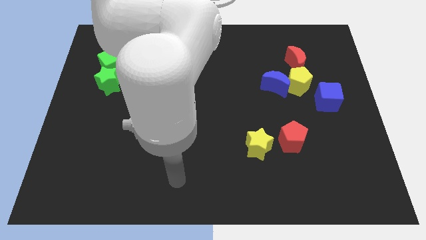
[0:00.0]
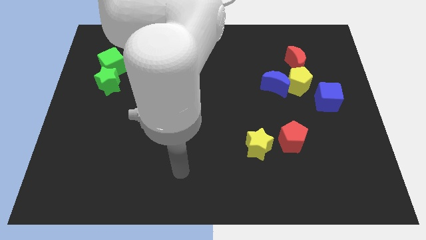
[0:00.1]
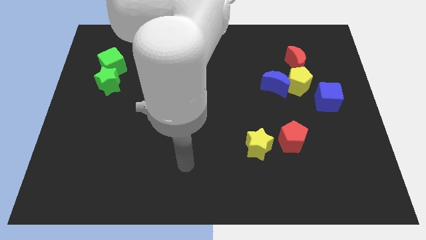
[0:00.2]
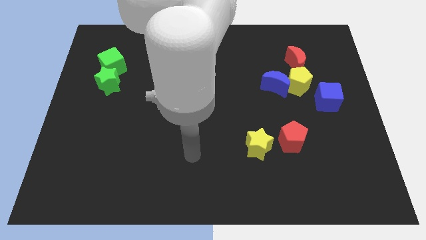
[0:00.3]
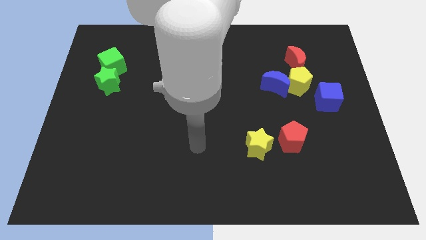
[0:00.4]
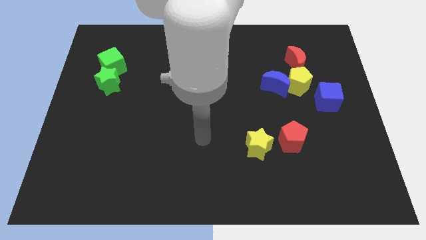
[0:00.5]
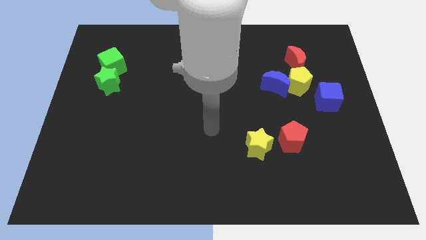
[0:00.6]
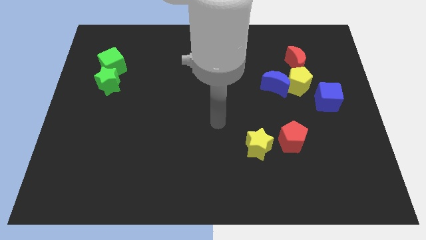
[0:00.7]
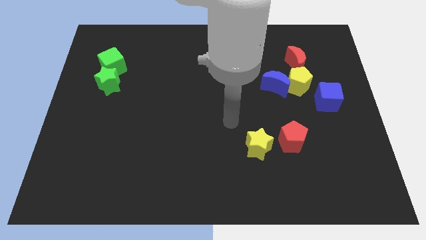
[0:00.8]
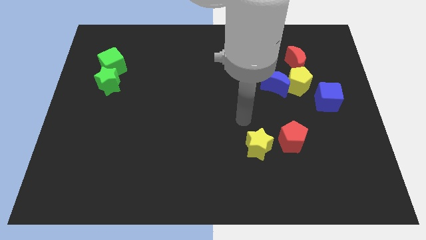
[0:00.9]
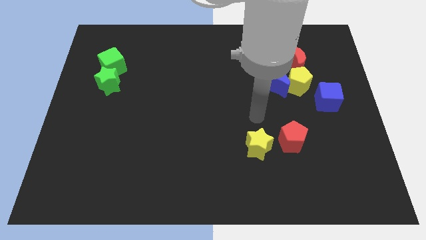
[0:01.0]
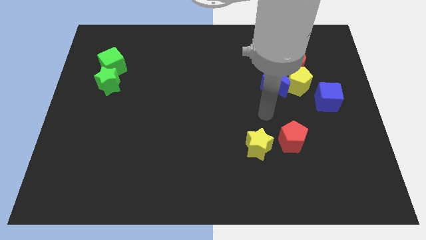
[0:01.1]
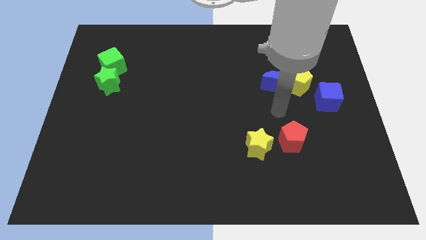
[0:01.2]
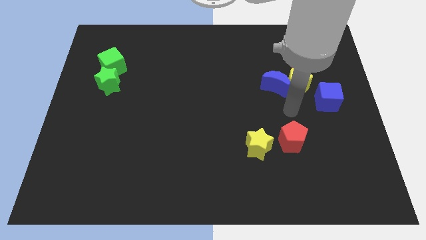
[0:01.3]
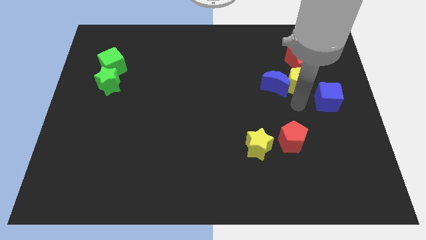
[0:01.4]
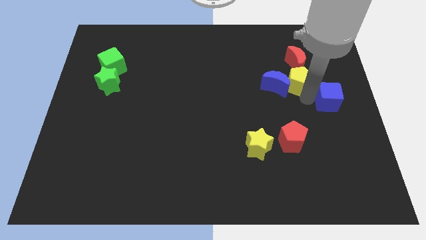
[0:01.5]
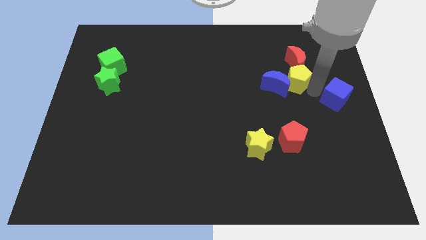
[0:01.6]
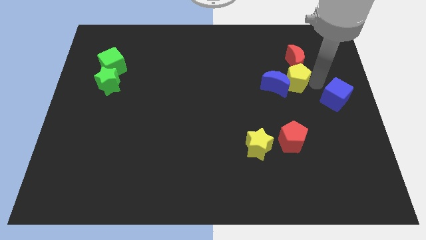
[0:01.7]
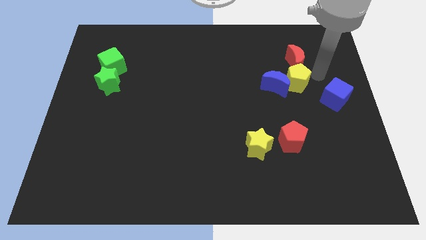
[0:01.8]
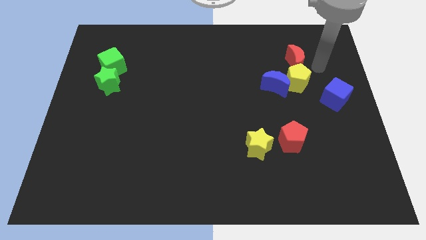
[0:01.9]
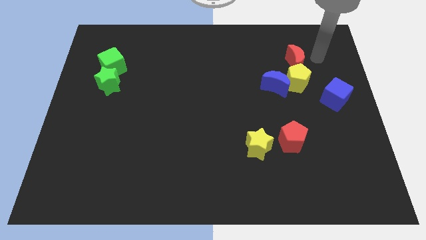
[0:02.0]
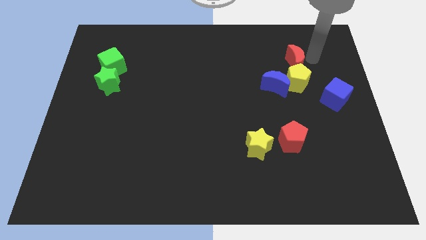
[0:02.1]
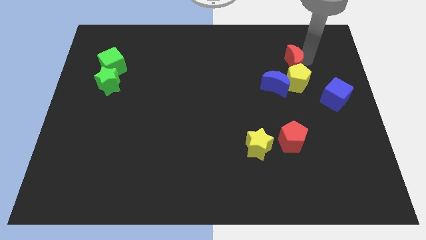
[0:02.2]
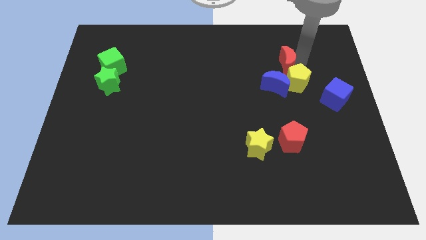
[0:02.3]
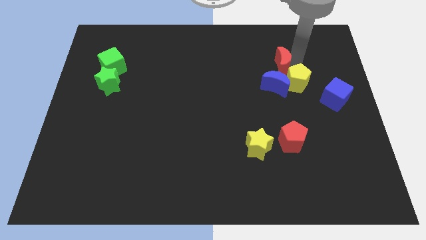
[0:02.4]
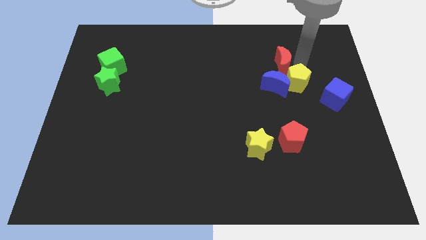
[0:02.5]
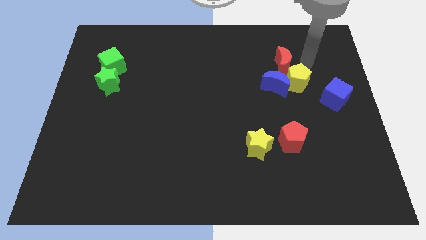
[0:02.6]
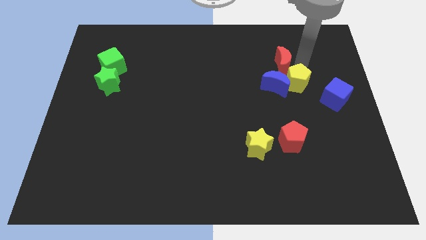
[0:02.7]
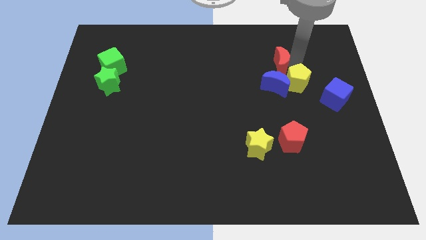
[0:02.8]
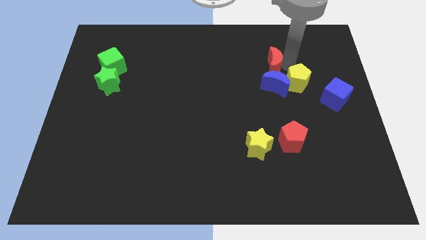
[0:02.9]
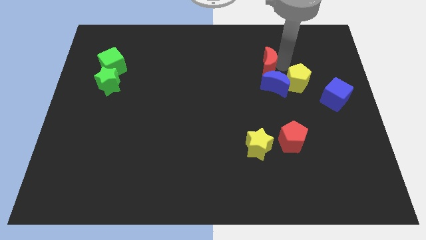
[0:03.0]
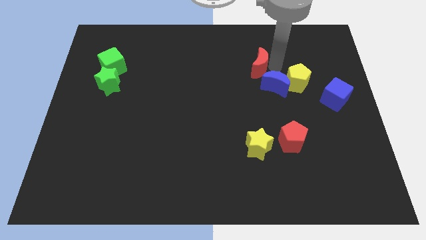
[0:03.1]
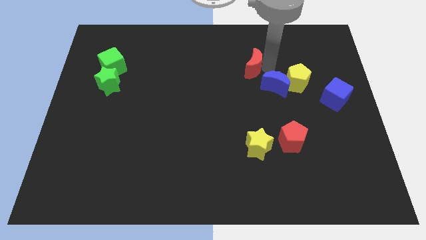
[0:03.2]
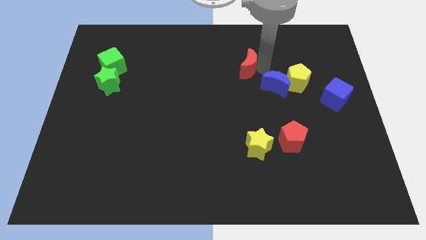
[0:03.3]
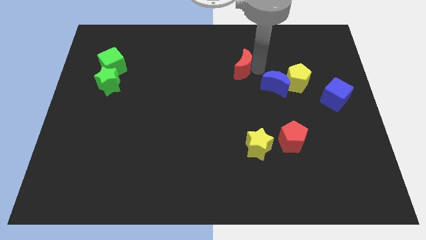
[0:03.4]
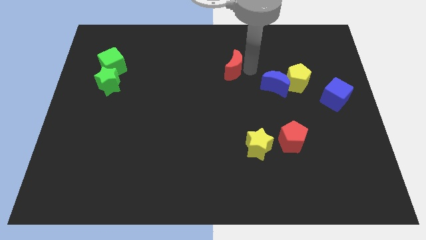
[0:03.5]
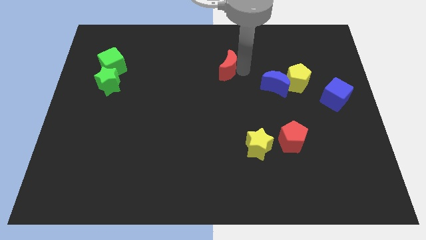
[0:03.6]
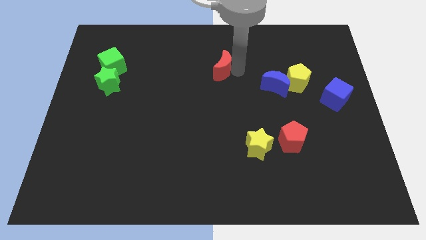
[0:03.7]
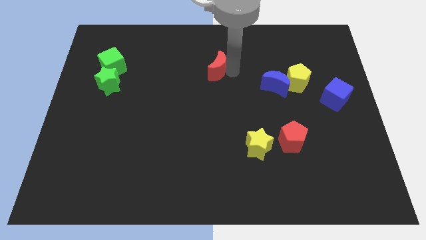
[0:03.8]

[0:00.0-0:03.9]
move the red moon to the left

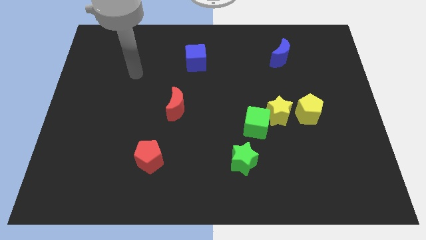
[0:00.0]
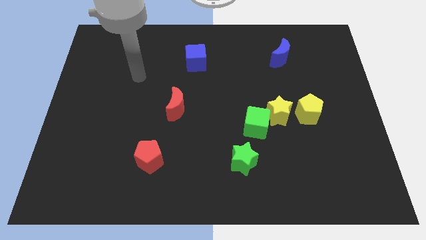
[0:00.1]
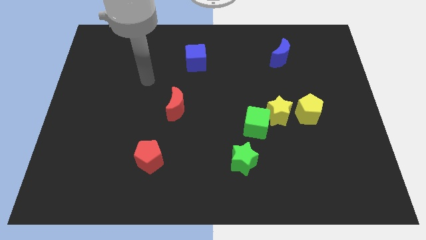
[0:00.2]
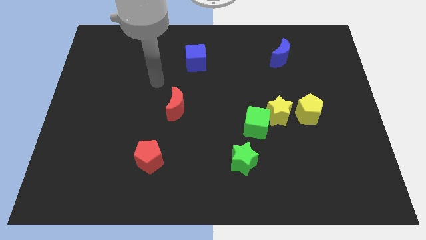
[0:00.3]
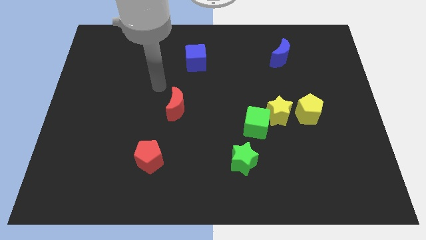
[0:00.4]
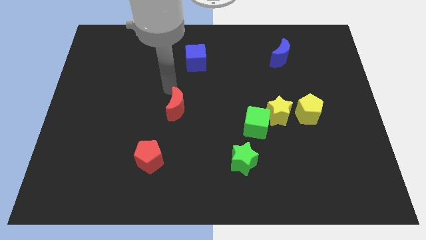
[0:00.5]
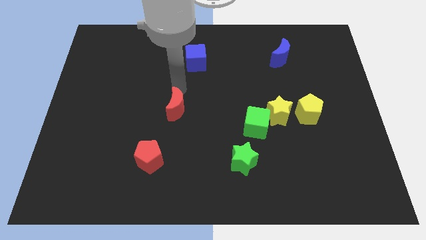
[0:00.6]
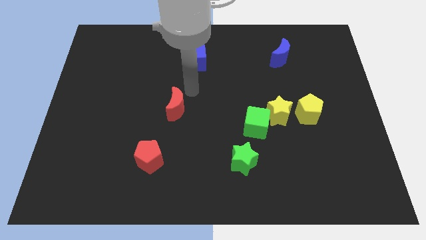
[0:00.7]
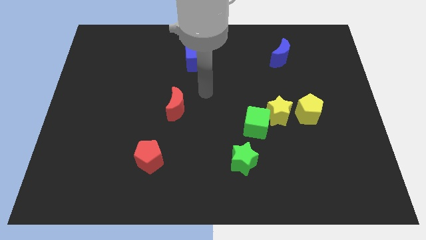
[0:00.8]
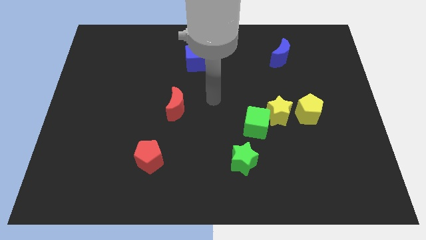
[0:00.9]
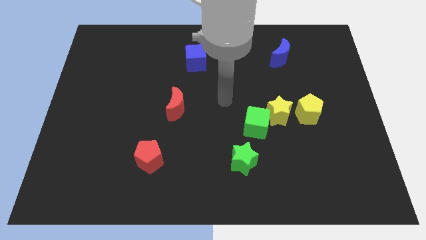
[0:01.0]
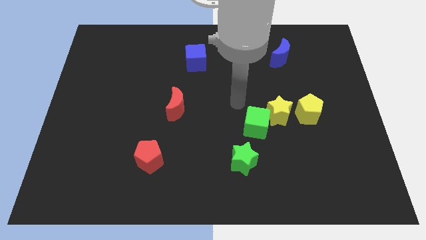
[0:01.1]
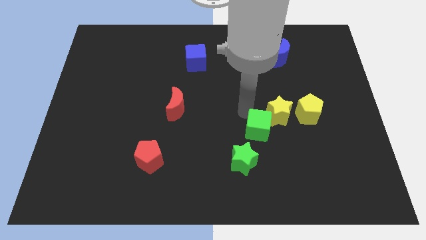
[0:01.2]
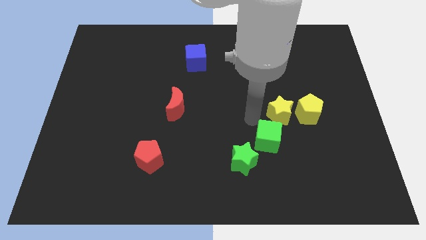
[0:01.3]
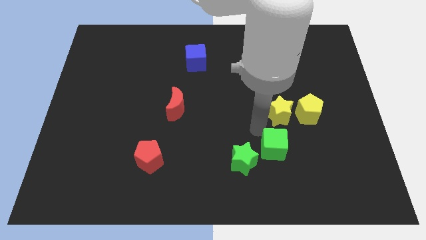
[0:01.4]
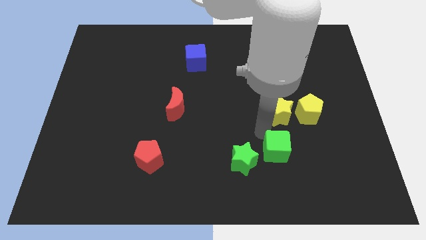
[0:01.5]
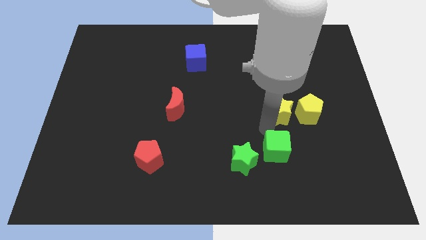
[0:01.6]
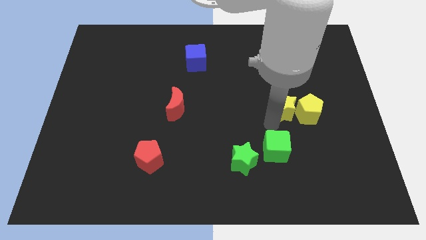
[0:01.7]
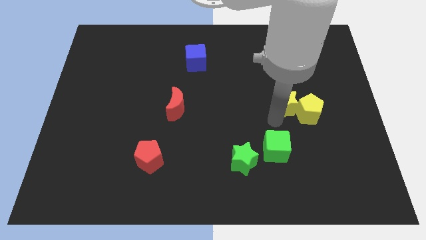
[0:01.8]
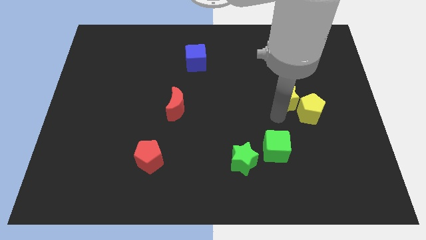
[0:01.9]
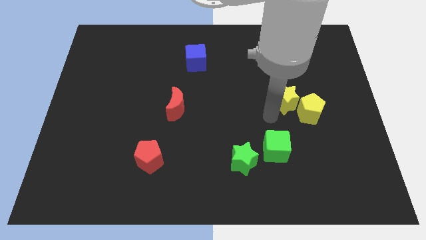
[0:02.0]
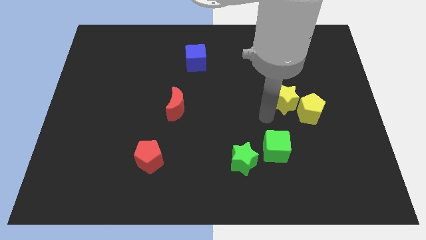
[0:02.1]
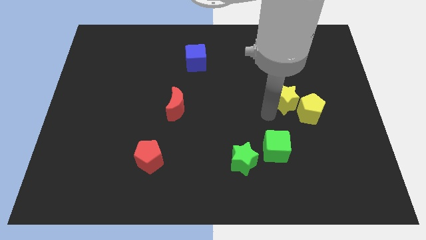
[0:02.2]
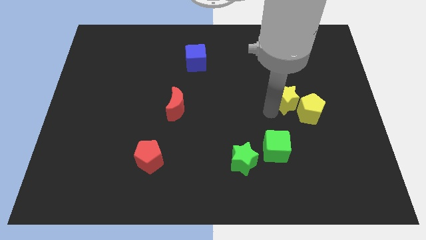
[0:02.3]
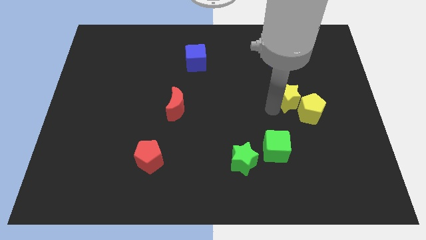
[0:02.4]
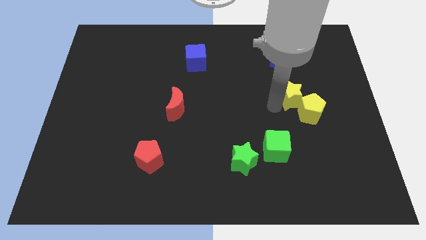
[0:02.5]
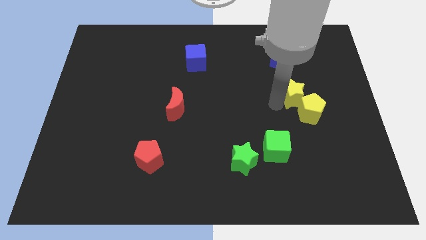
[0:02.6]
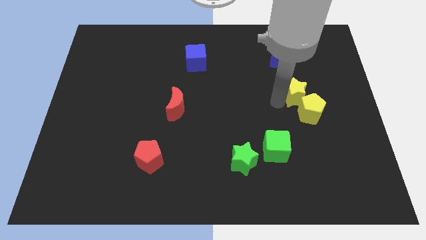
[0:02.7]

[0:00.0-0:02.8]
push the yellow star a bit upwards and then right

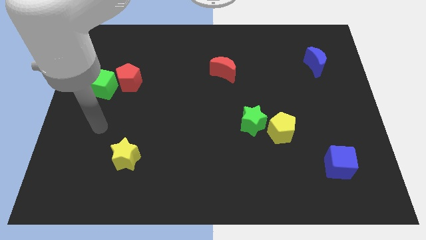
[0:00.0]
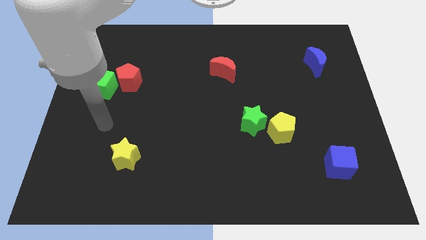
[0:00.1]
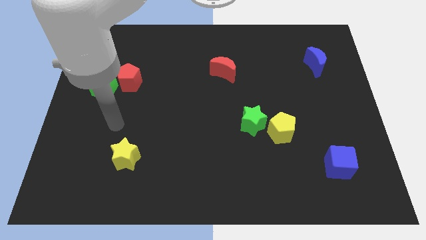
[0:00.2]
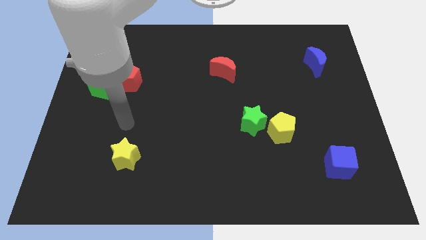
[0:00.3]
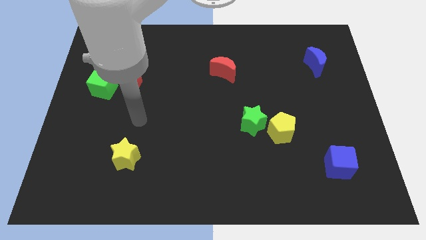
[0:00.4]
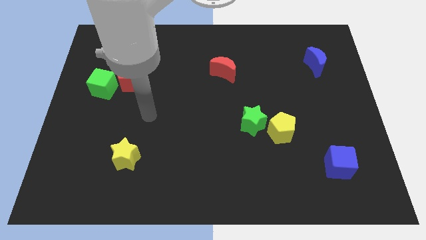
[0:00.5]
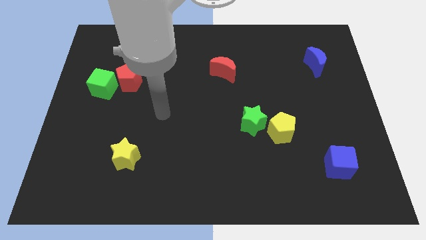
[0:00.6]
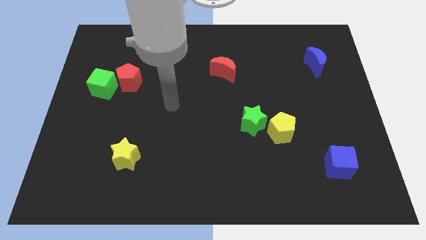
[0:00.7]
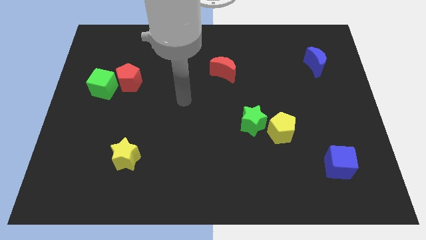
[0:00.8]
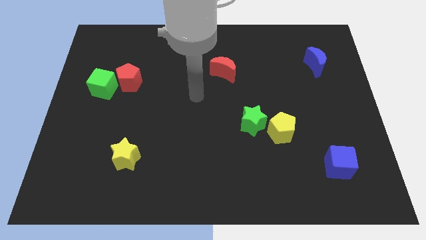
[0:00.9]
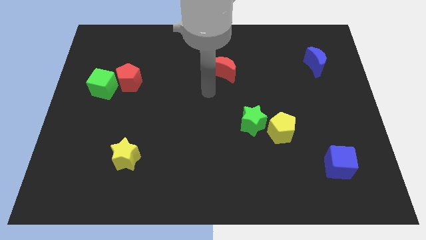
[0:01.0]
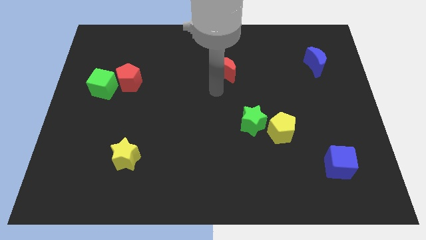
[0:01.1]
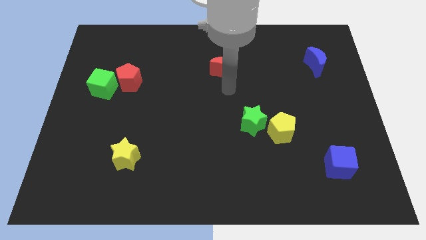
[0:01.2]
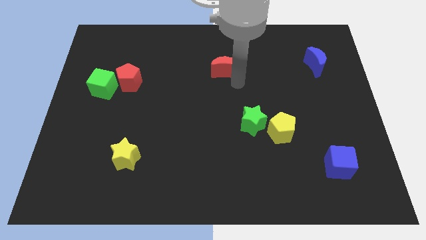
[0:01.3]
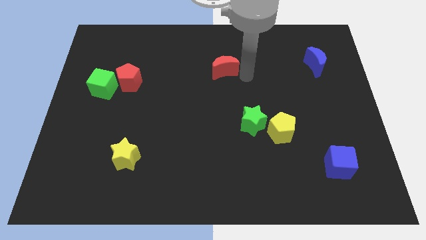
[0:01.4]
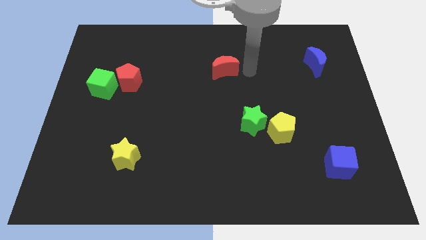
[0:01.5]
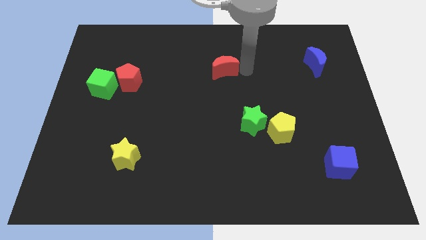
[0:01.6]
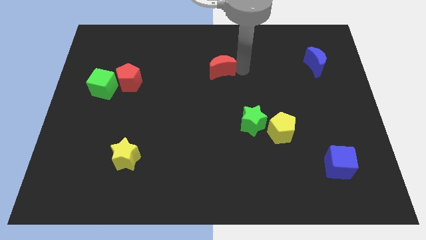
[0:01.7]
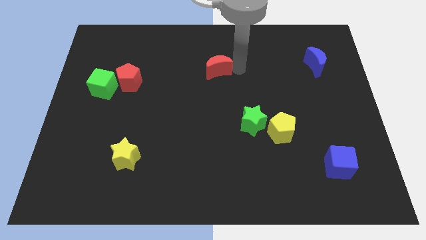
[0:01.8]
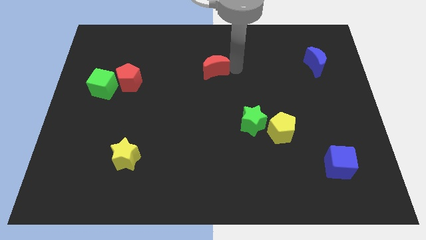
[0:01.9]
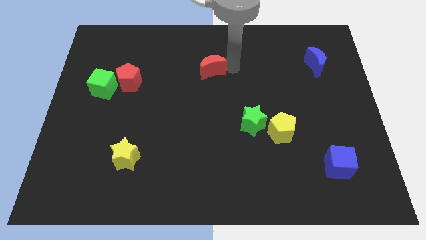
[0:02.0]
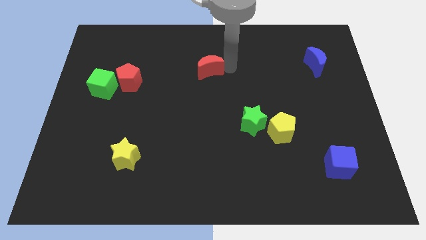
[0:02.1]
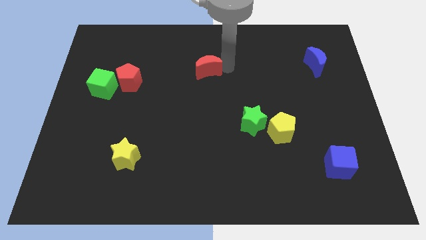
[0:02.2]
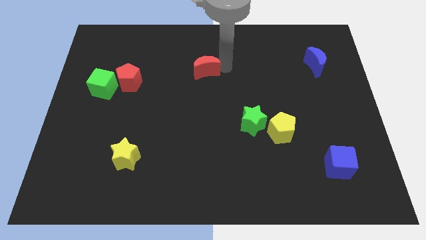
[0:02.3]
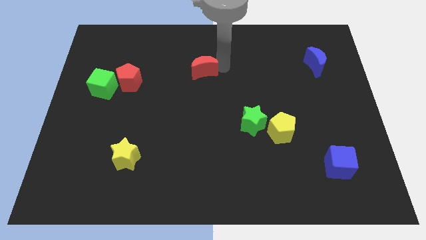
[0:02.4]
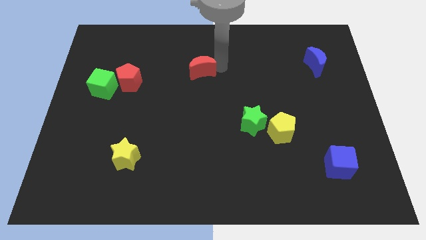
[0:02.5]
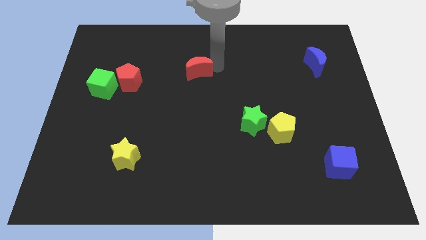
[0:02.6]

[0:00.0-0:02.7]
slightly move the red moon left
